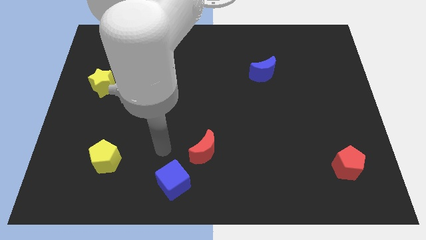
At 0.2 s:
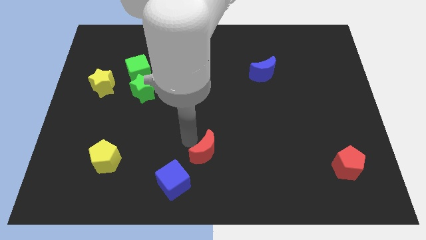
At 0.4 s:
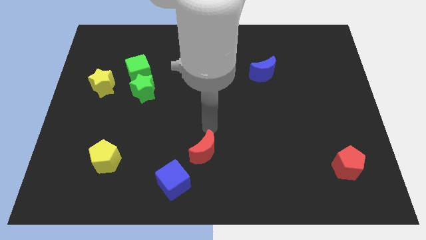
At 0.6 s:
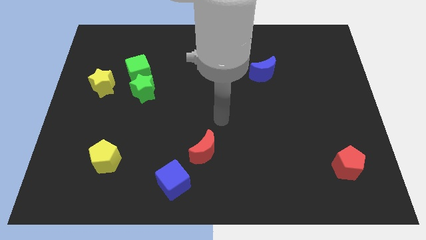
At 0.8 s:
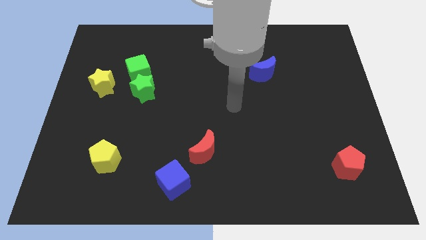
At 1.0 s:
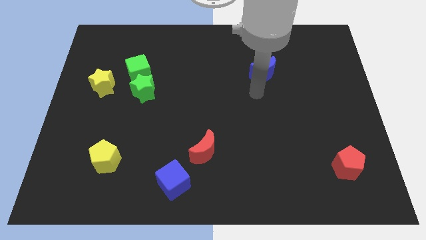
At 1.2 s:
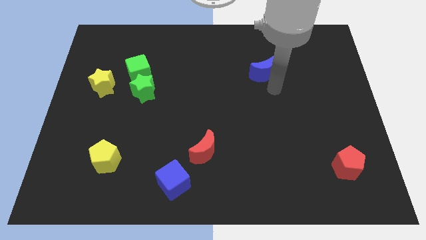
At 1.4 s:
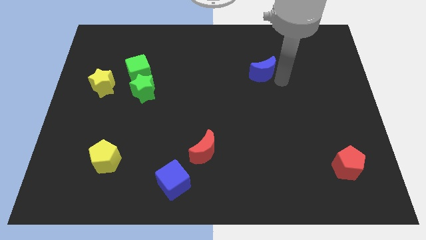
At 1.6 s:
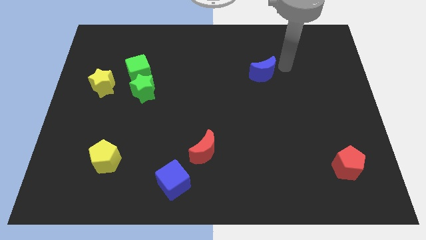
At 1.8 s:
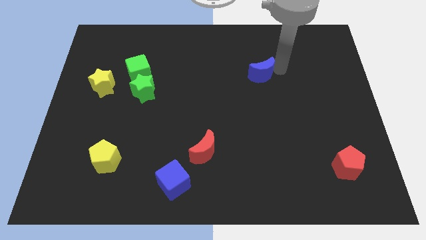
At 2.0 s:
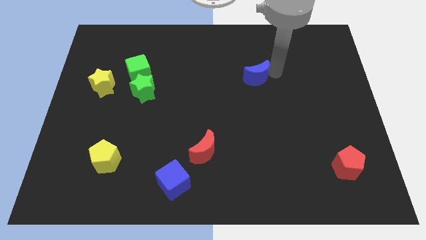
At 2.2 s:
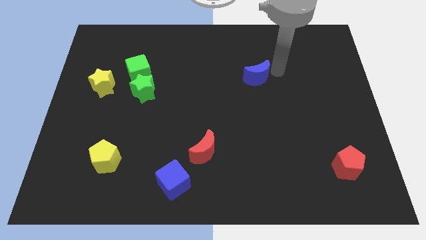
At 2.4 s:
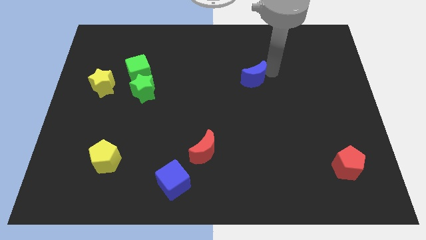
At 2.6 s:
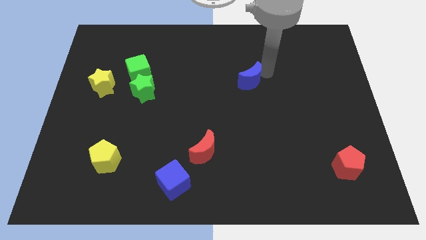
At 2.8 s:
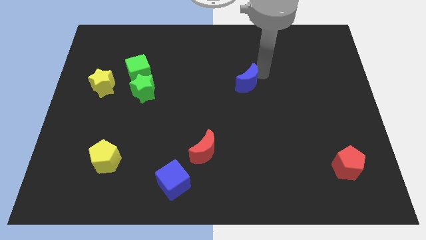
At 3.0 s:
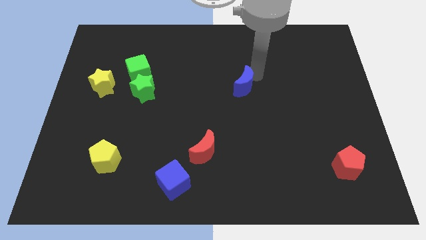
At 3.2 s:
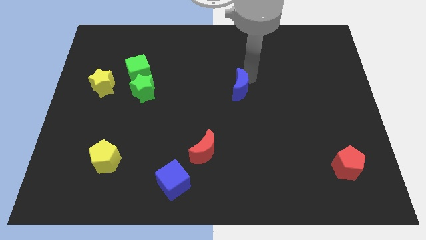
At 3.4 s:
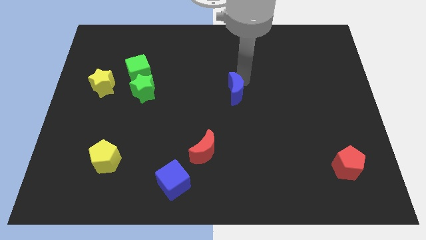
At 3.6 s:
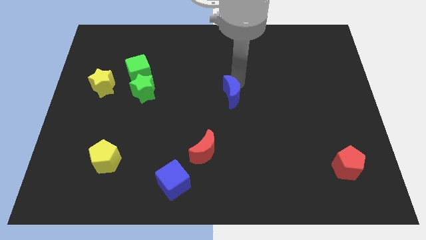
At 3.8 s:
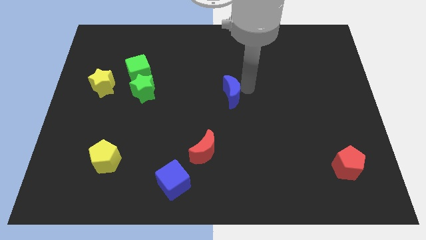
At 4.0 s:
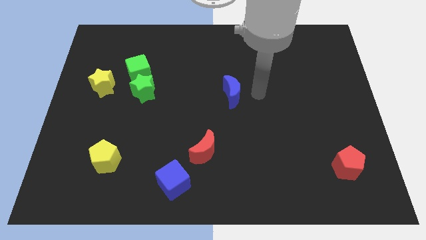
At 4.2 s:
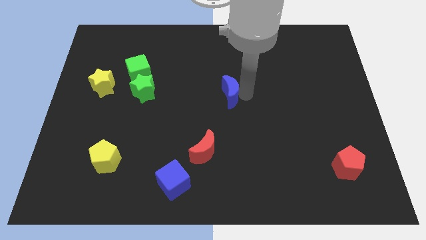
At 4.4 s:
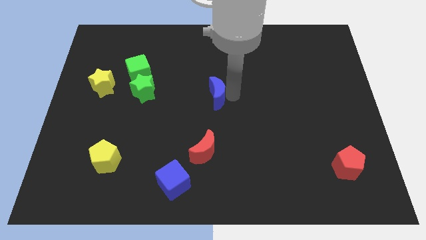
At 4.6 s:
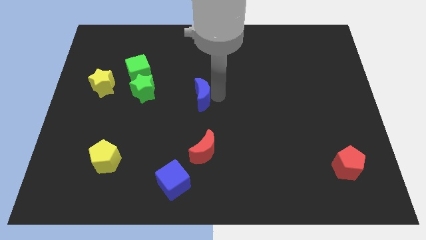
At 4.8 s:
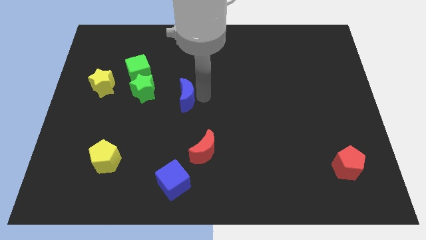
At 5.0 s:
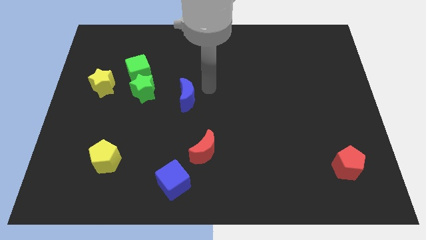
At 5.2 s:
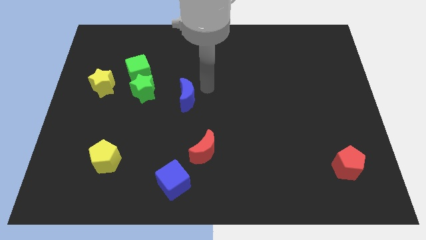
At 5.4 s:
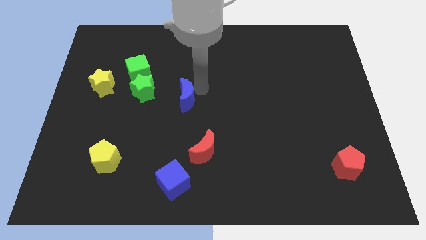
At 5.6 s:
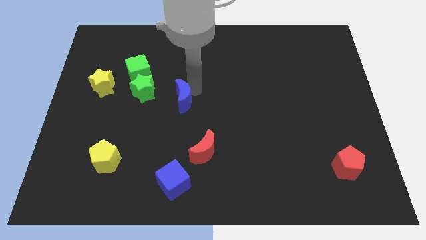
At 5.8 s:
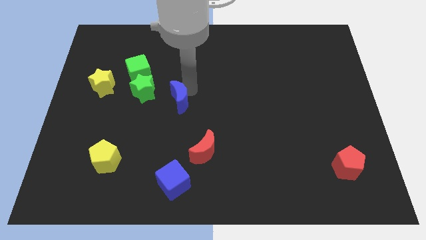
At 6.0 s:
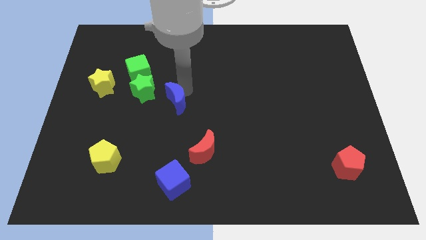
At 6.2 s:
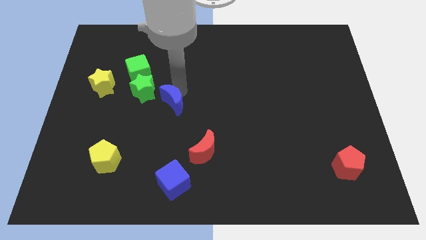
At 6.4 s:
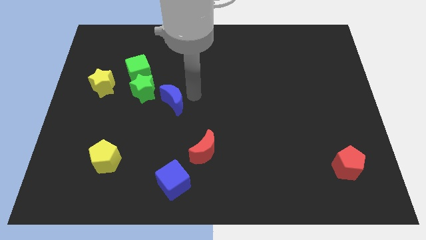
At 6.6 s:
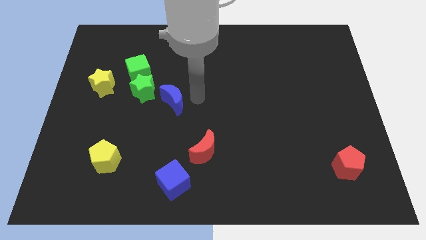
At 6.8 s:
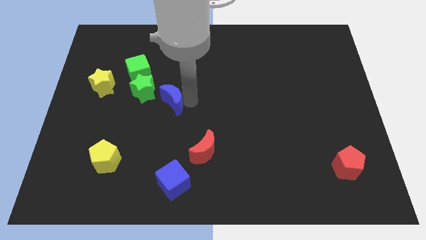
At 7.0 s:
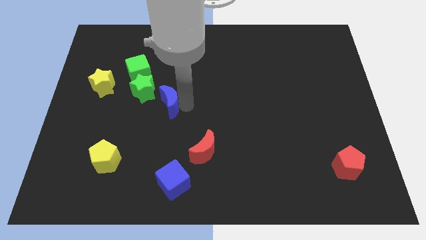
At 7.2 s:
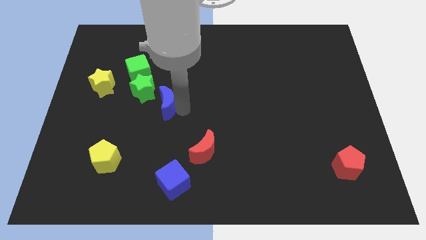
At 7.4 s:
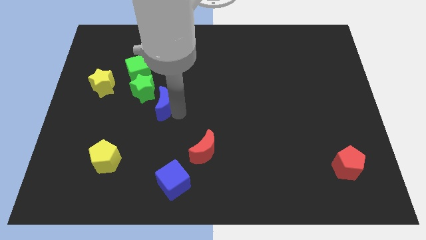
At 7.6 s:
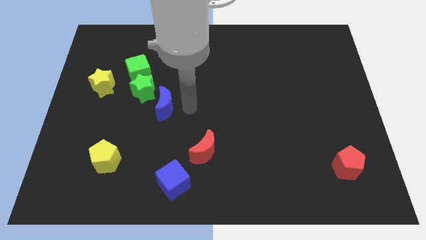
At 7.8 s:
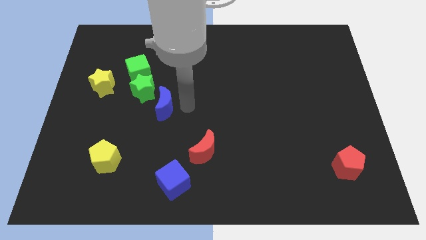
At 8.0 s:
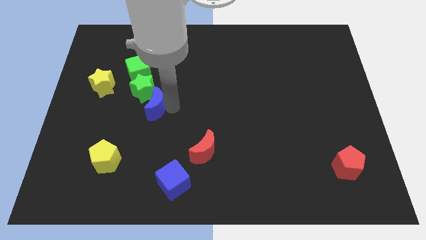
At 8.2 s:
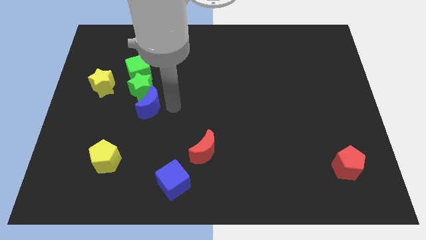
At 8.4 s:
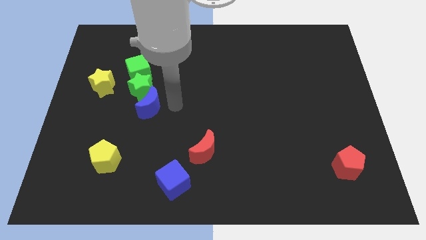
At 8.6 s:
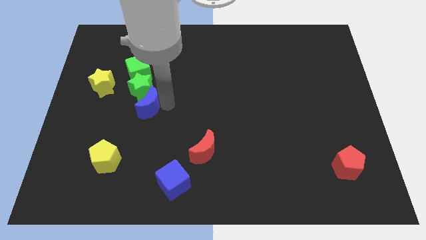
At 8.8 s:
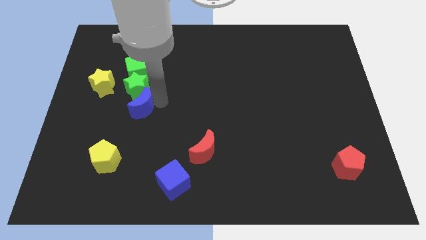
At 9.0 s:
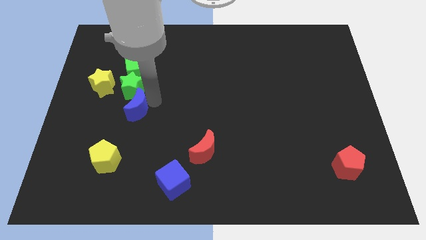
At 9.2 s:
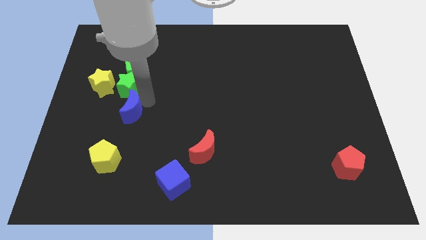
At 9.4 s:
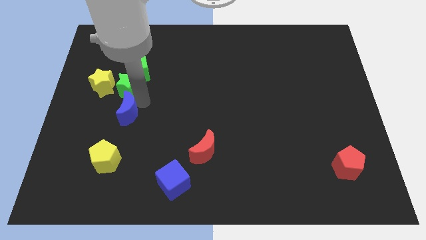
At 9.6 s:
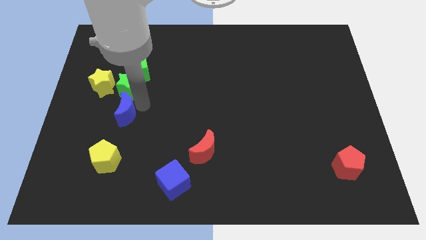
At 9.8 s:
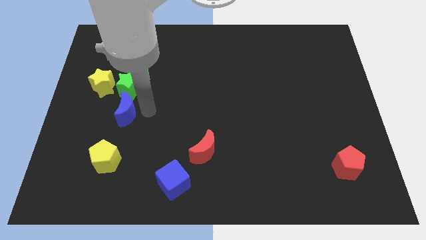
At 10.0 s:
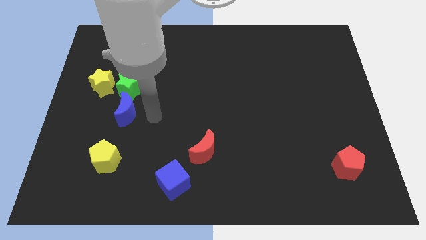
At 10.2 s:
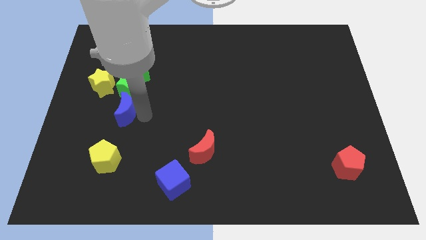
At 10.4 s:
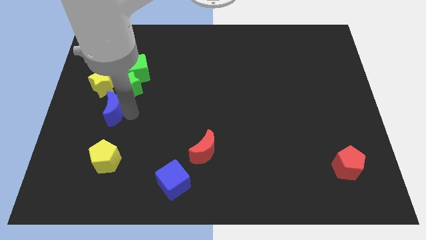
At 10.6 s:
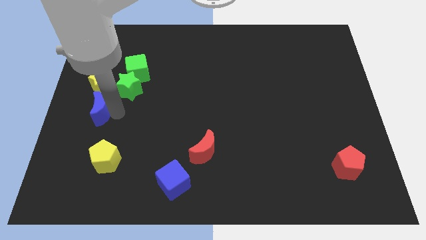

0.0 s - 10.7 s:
move the blue moon to the center left

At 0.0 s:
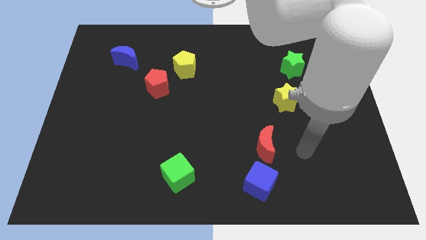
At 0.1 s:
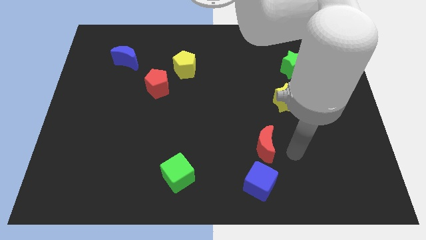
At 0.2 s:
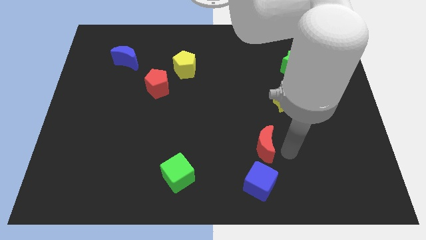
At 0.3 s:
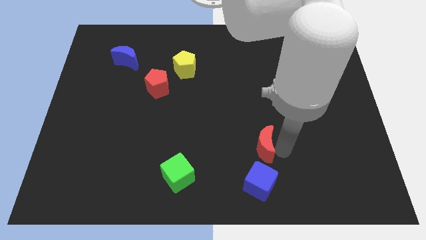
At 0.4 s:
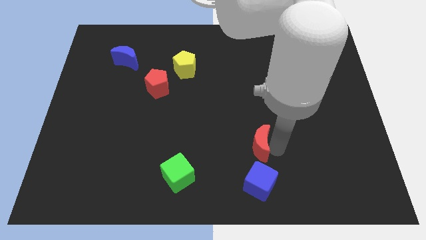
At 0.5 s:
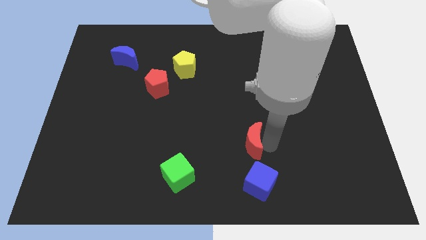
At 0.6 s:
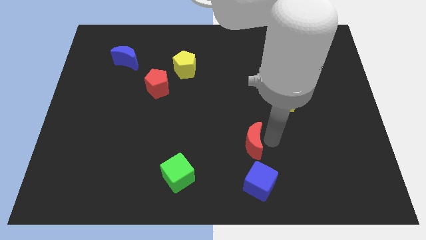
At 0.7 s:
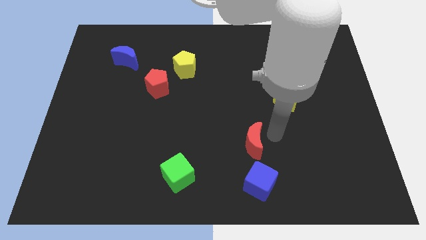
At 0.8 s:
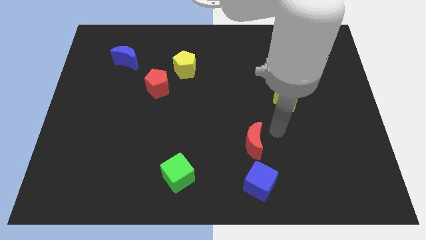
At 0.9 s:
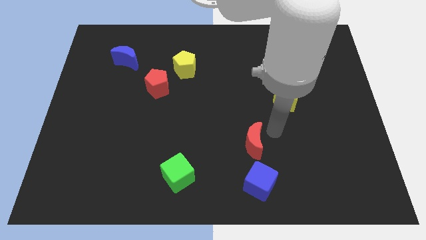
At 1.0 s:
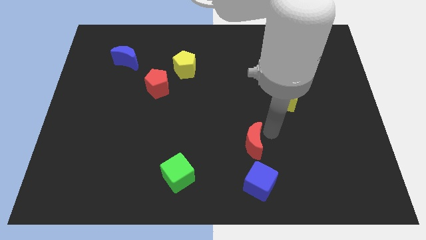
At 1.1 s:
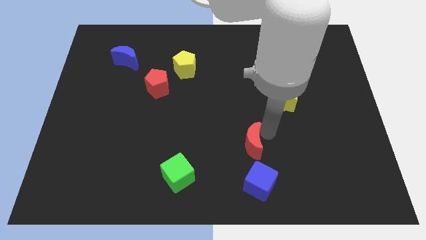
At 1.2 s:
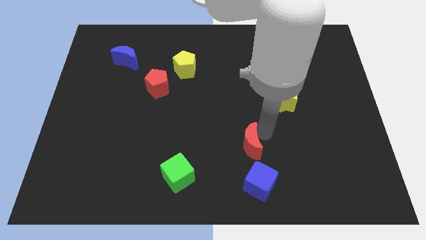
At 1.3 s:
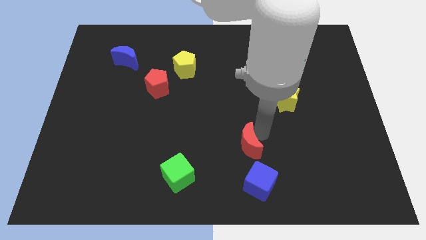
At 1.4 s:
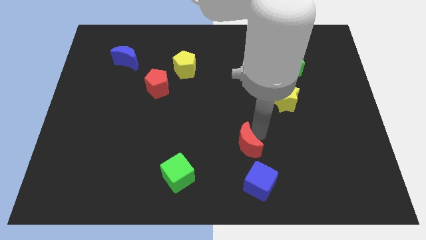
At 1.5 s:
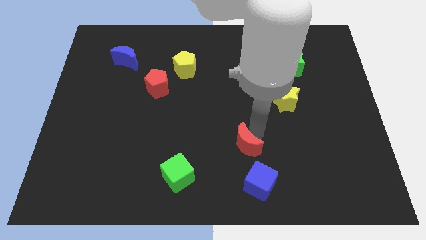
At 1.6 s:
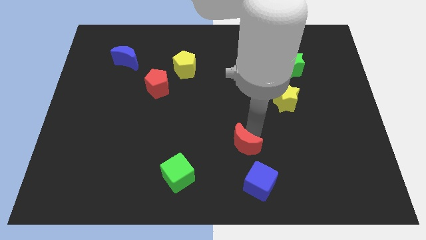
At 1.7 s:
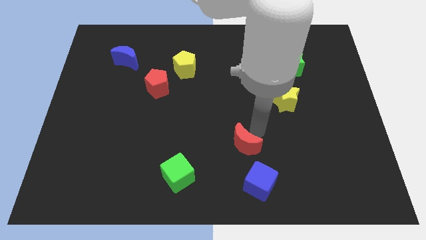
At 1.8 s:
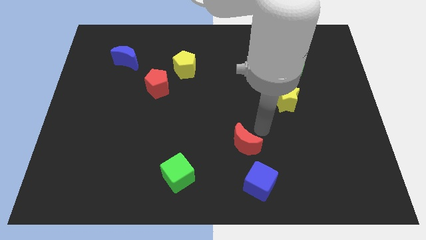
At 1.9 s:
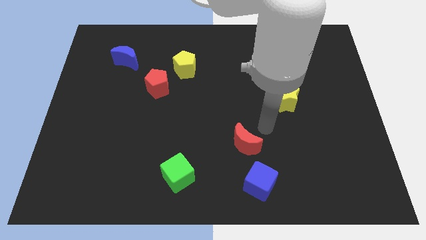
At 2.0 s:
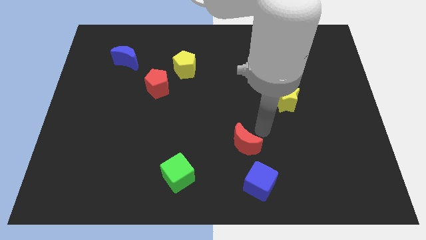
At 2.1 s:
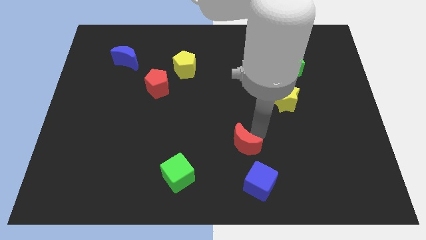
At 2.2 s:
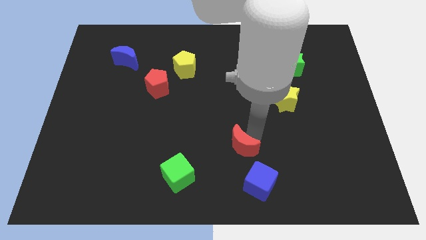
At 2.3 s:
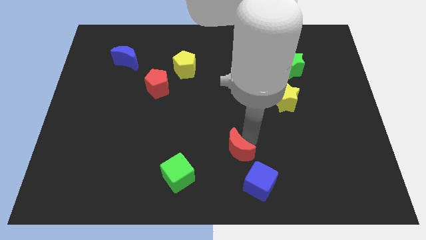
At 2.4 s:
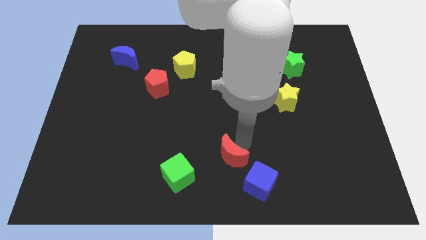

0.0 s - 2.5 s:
move the red moon to the bottom
